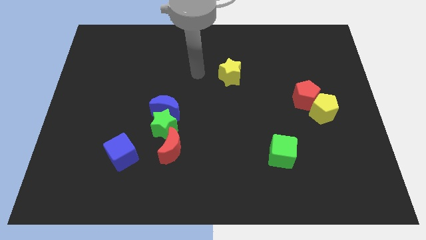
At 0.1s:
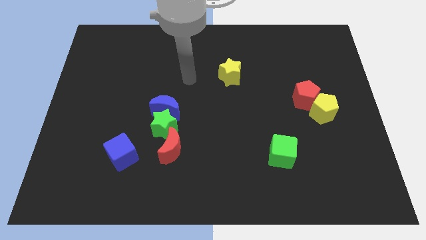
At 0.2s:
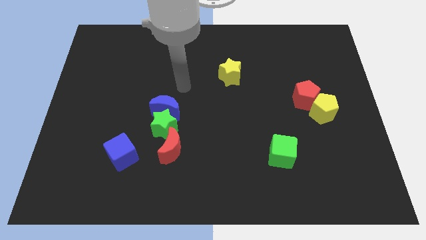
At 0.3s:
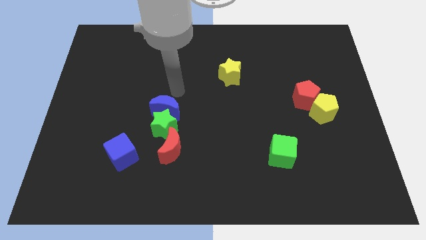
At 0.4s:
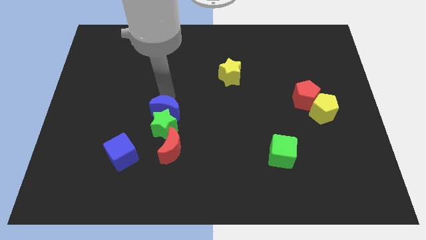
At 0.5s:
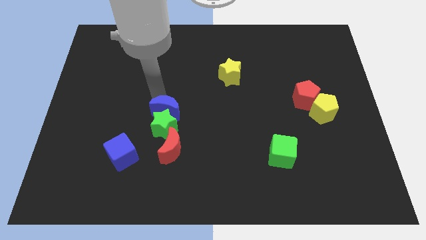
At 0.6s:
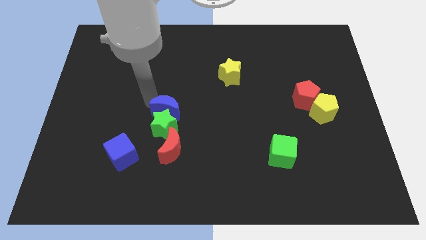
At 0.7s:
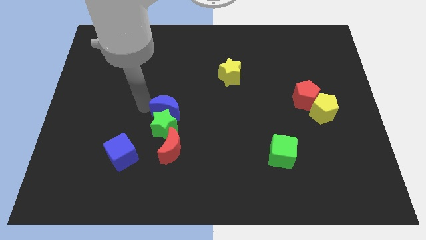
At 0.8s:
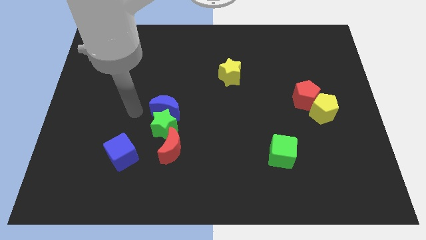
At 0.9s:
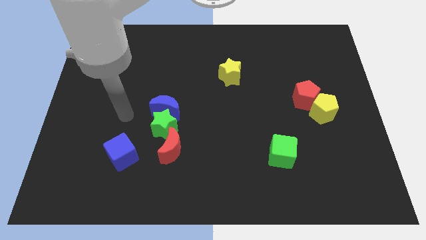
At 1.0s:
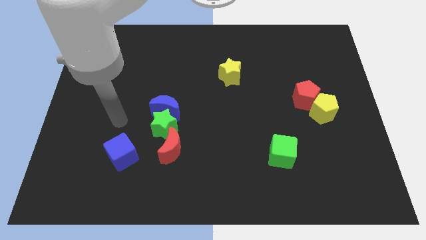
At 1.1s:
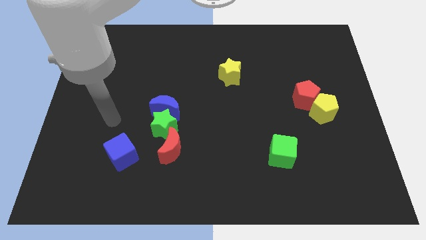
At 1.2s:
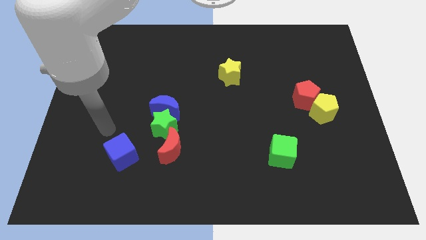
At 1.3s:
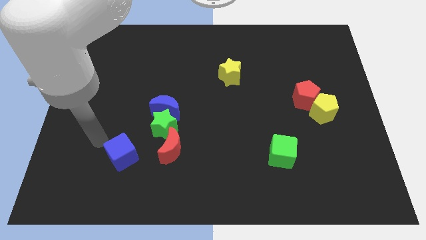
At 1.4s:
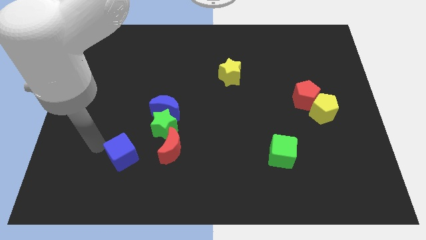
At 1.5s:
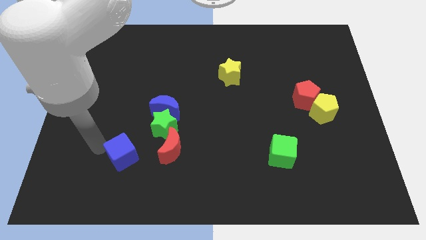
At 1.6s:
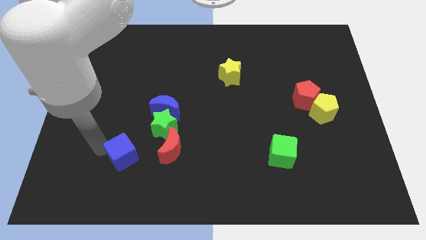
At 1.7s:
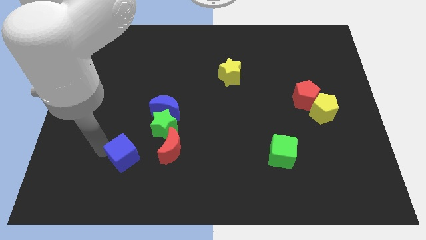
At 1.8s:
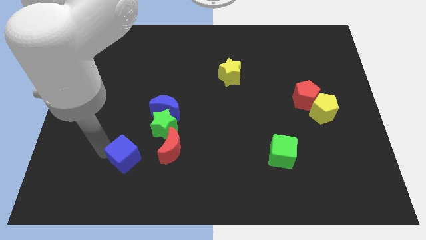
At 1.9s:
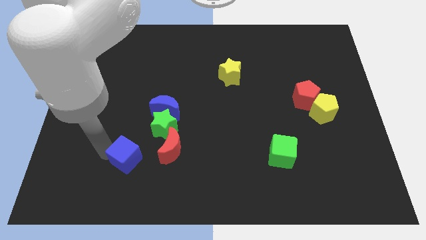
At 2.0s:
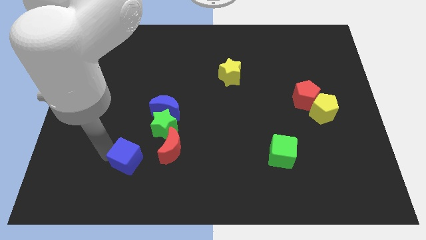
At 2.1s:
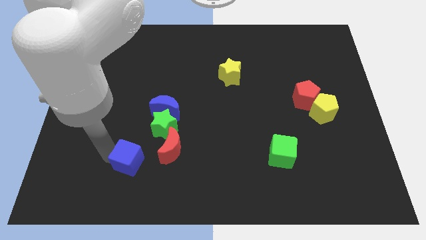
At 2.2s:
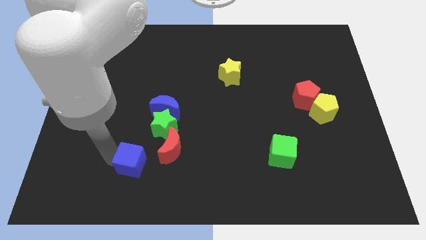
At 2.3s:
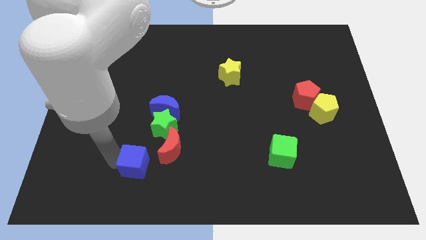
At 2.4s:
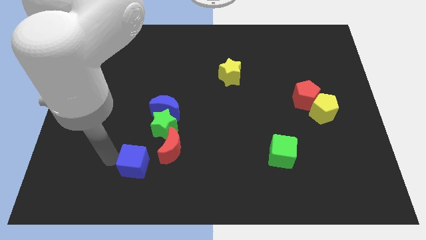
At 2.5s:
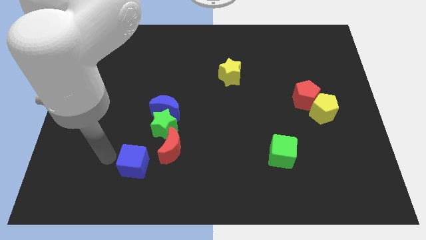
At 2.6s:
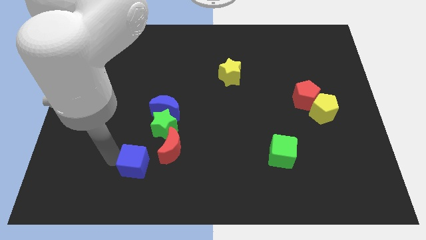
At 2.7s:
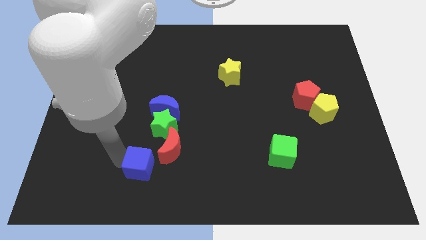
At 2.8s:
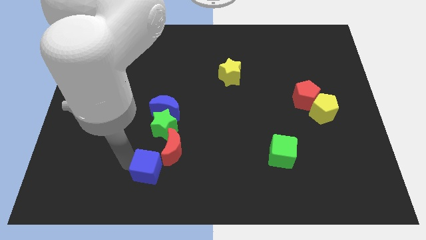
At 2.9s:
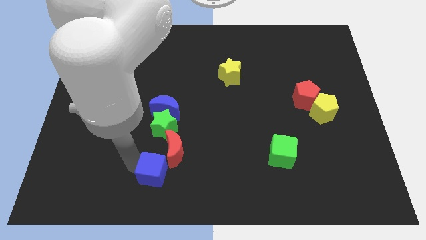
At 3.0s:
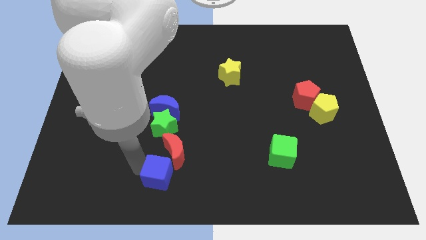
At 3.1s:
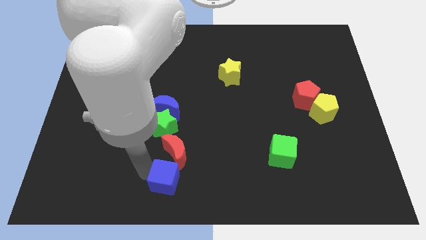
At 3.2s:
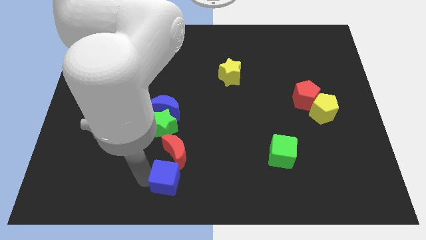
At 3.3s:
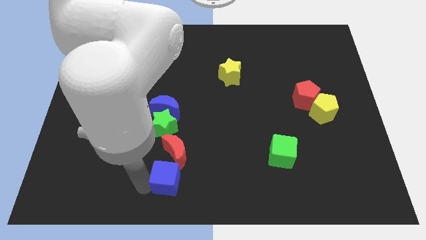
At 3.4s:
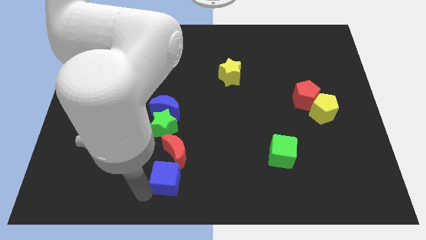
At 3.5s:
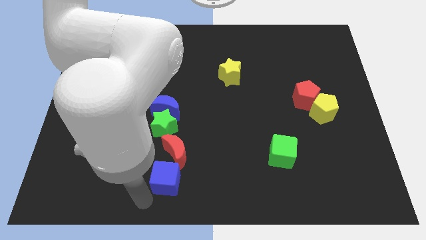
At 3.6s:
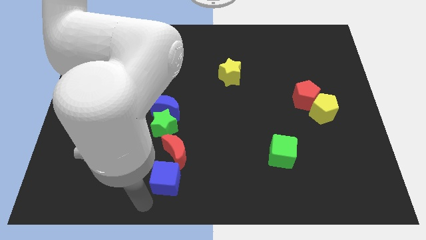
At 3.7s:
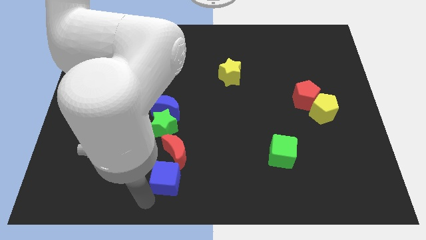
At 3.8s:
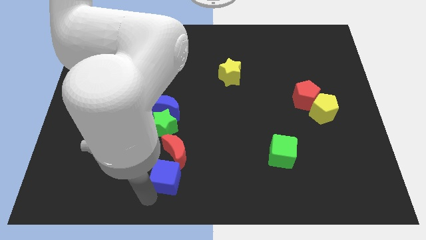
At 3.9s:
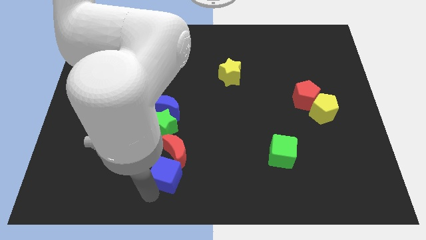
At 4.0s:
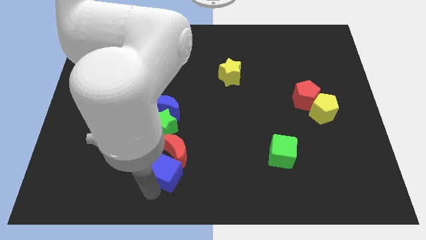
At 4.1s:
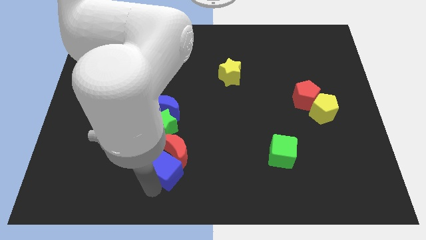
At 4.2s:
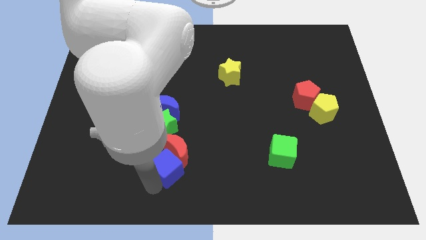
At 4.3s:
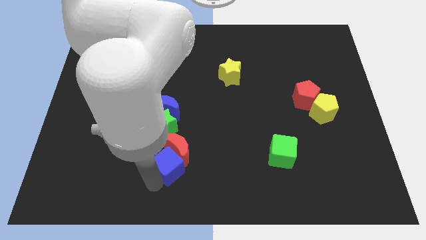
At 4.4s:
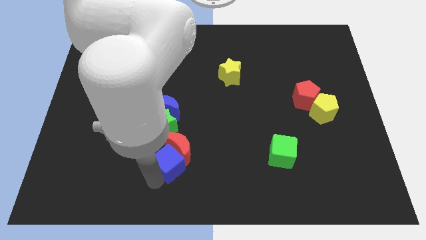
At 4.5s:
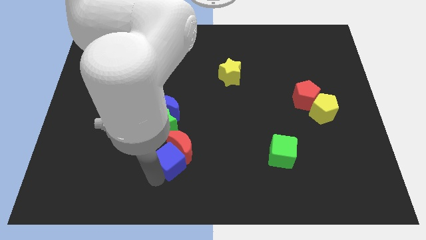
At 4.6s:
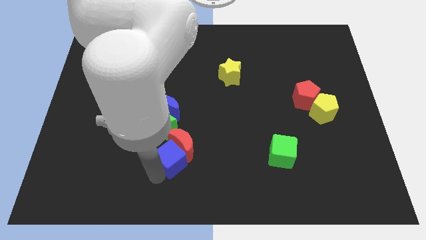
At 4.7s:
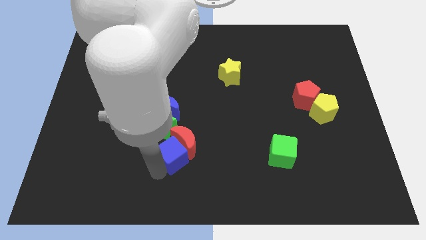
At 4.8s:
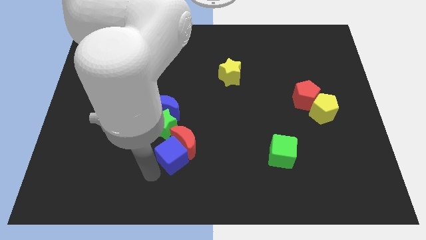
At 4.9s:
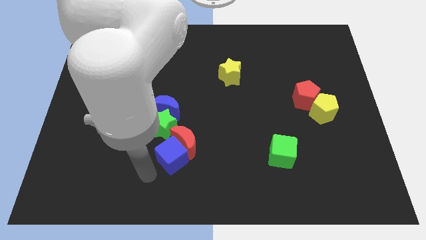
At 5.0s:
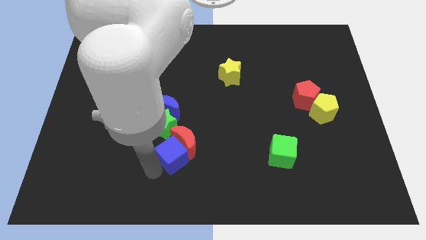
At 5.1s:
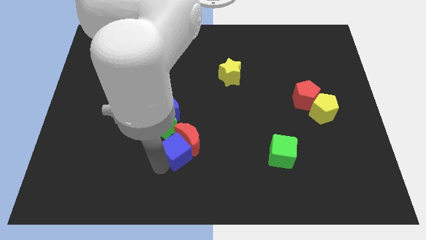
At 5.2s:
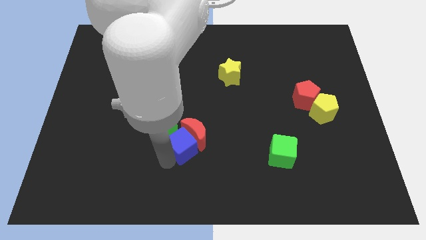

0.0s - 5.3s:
put the blue cube to the bottom right side of the blue moon

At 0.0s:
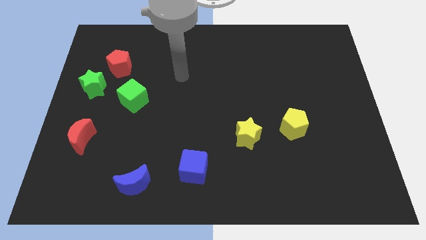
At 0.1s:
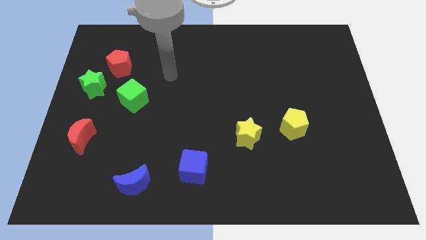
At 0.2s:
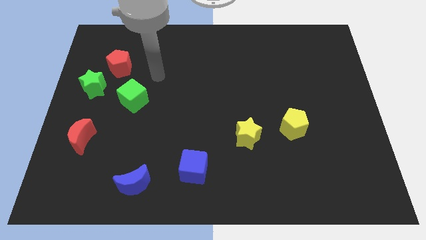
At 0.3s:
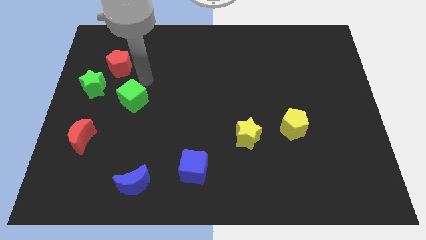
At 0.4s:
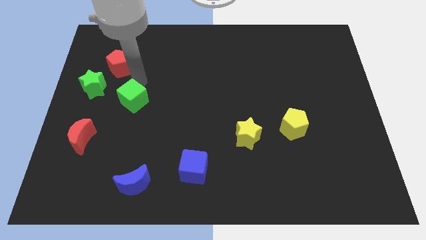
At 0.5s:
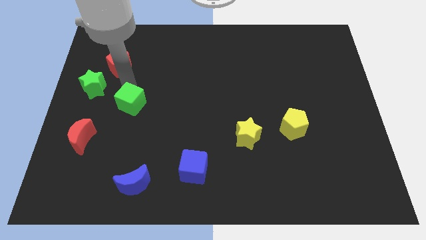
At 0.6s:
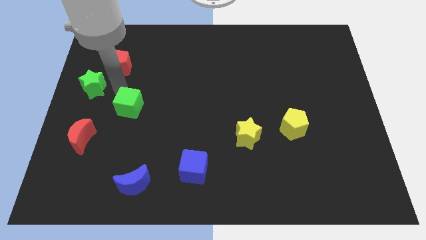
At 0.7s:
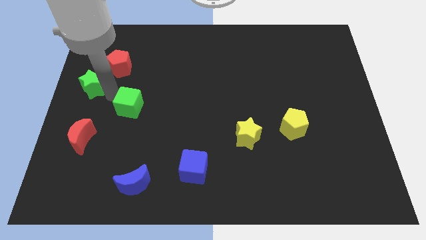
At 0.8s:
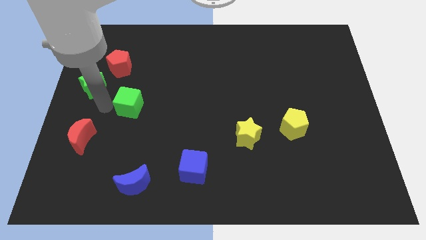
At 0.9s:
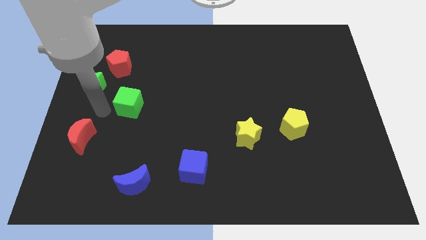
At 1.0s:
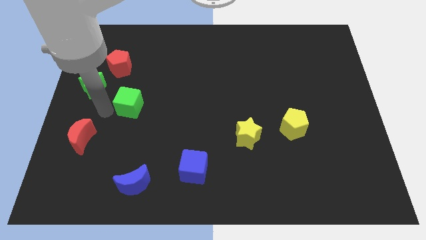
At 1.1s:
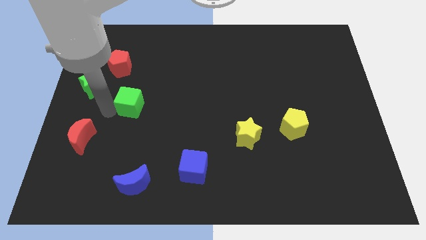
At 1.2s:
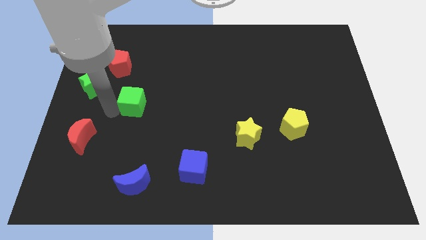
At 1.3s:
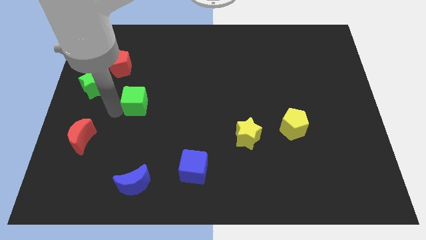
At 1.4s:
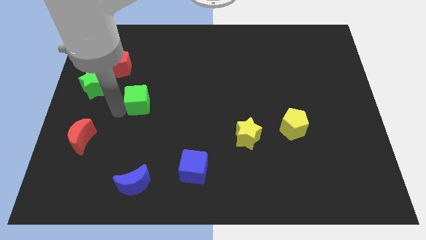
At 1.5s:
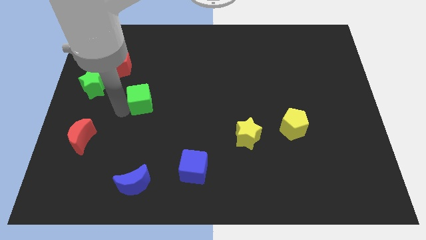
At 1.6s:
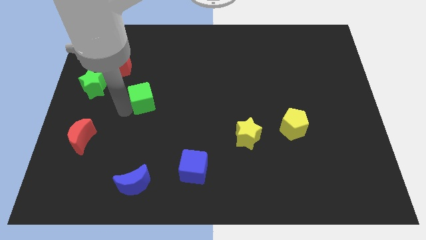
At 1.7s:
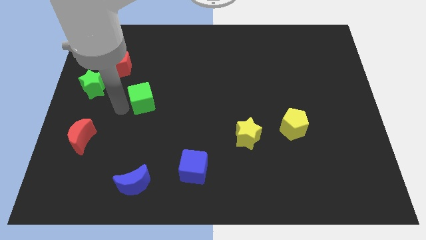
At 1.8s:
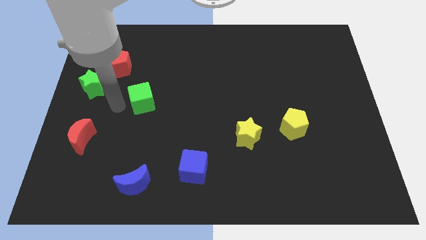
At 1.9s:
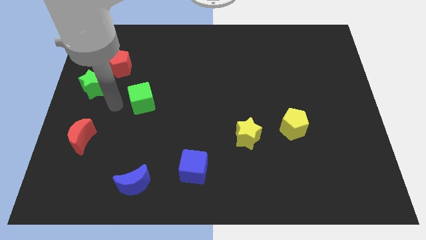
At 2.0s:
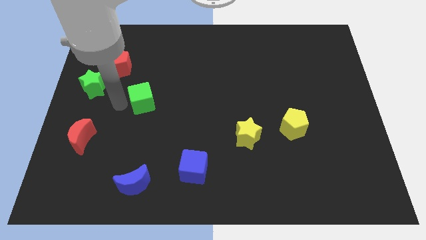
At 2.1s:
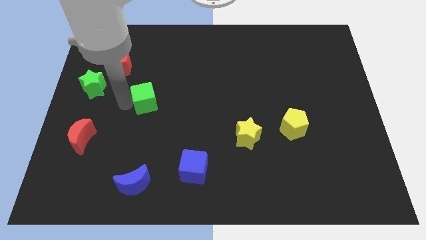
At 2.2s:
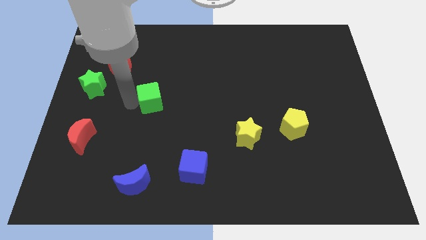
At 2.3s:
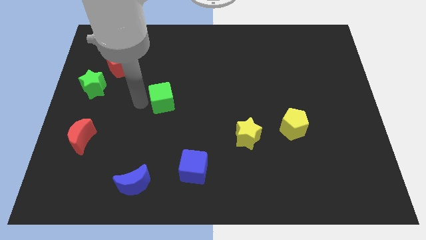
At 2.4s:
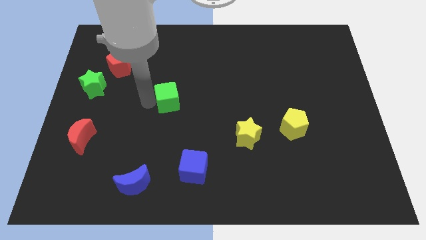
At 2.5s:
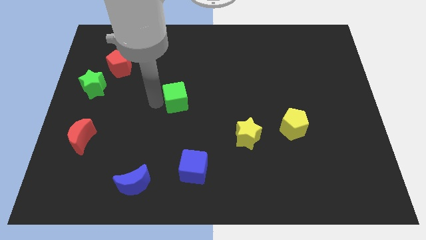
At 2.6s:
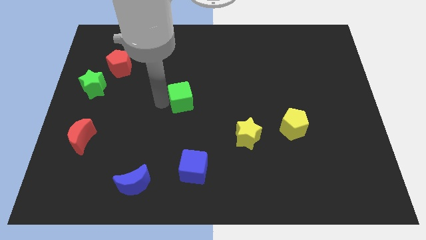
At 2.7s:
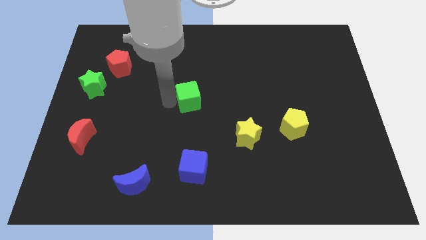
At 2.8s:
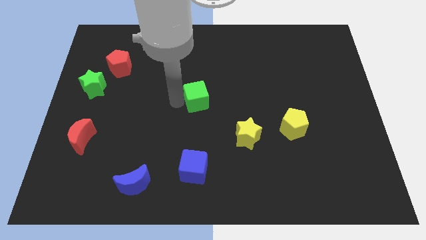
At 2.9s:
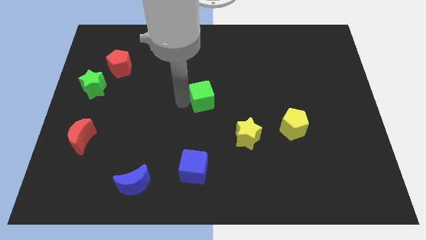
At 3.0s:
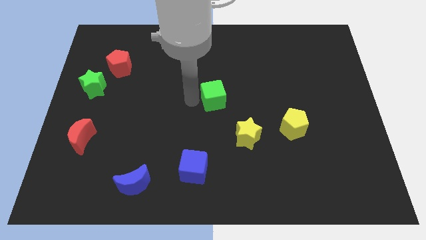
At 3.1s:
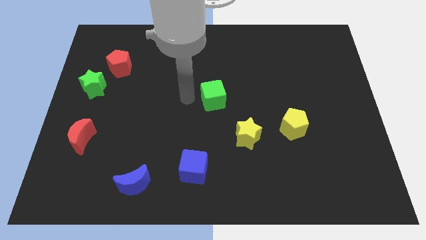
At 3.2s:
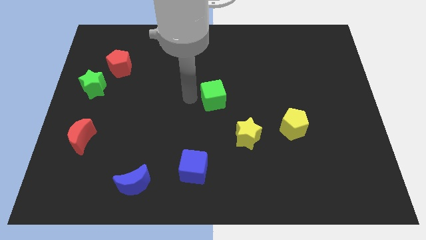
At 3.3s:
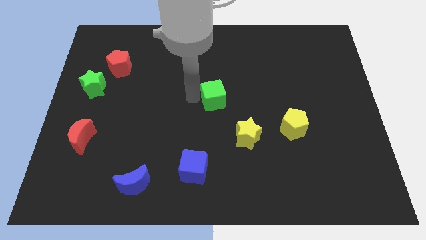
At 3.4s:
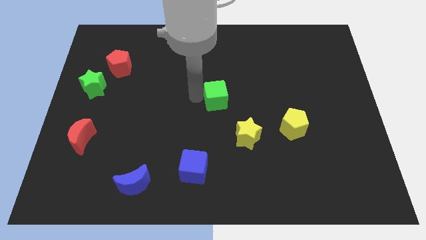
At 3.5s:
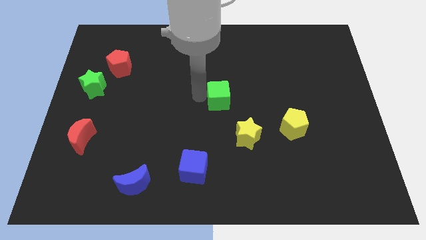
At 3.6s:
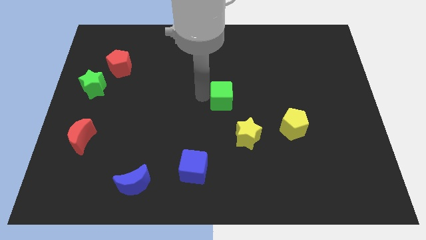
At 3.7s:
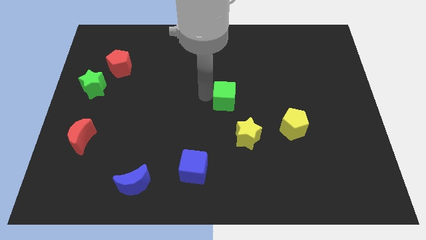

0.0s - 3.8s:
put the green cube to the top side of the yellow star
